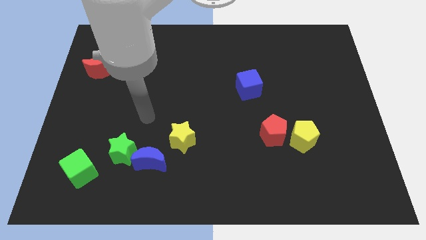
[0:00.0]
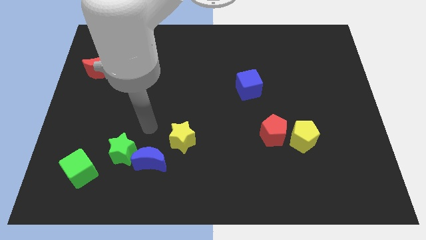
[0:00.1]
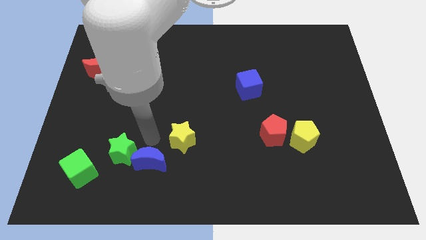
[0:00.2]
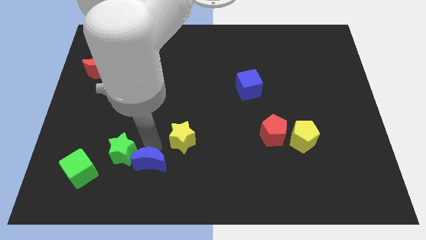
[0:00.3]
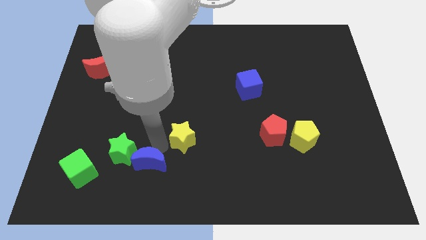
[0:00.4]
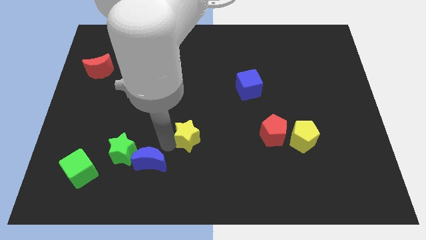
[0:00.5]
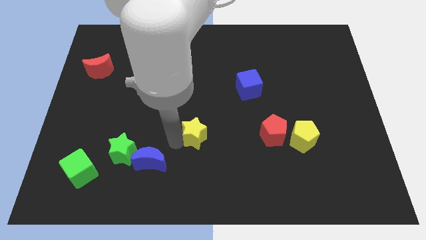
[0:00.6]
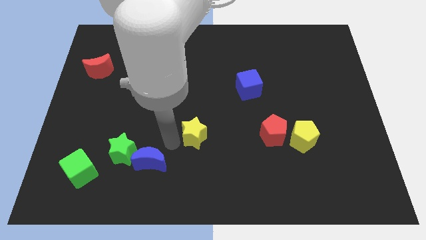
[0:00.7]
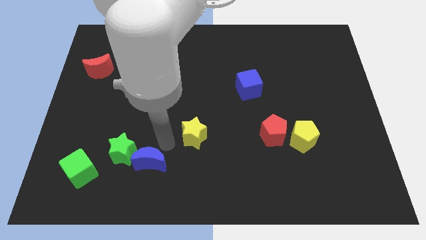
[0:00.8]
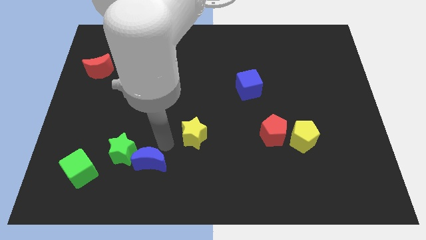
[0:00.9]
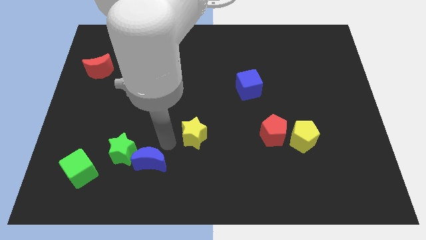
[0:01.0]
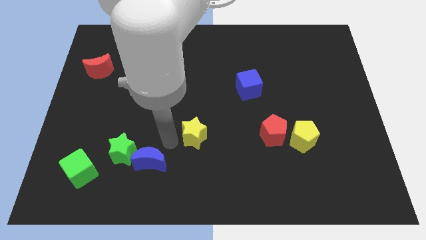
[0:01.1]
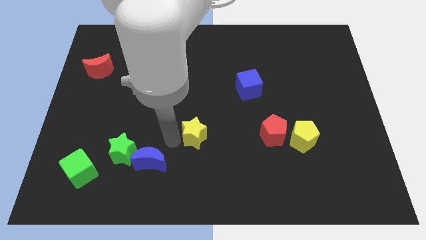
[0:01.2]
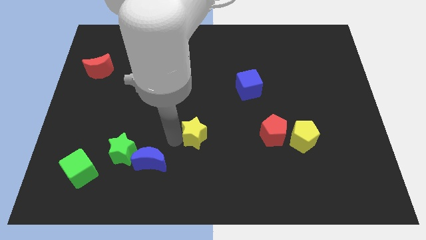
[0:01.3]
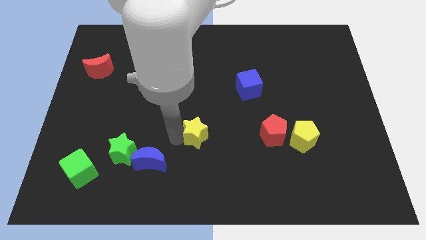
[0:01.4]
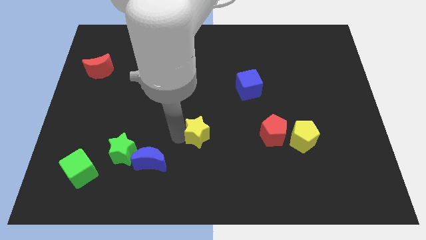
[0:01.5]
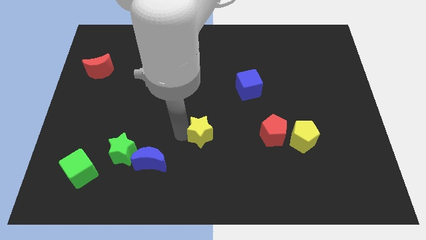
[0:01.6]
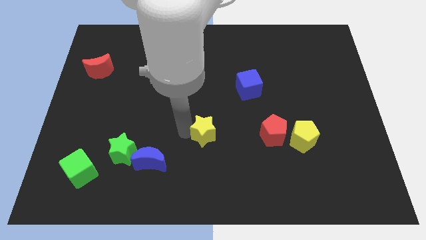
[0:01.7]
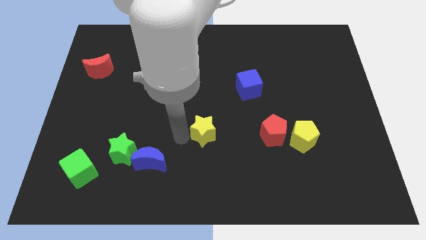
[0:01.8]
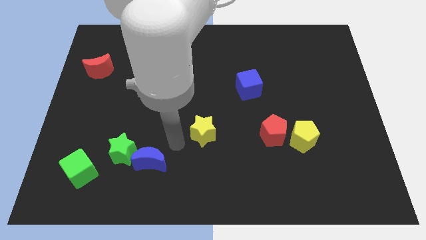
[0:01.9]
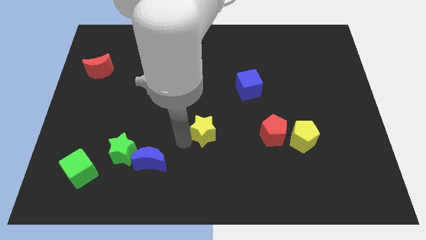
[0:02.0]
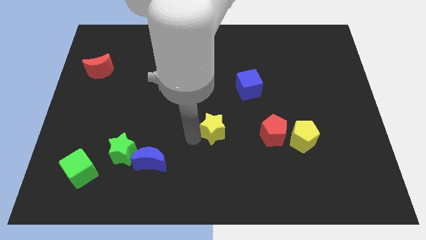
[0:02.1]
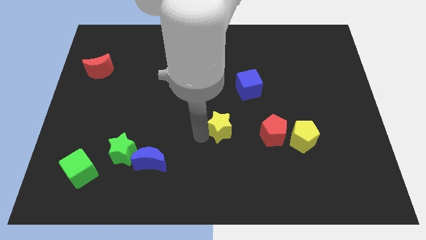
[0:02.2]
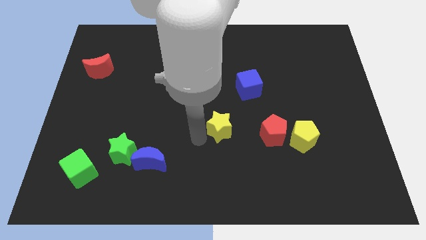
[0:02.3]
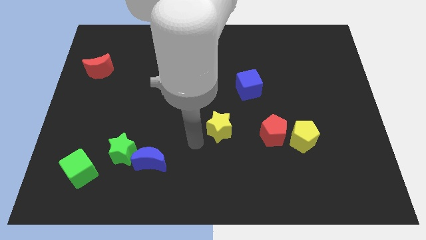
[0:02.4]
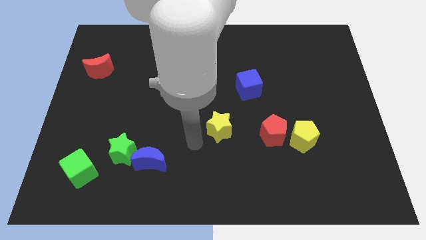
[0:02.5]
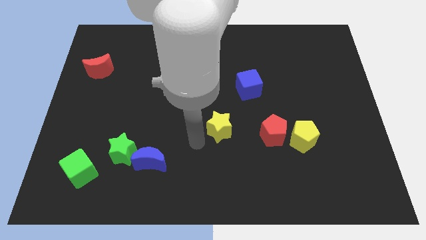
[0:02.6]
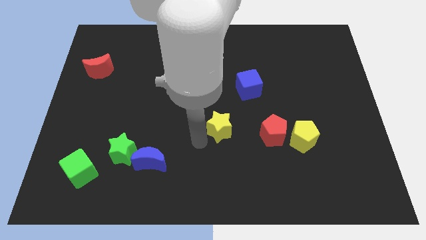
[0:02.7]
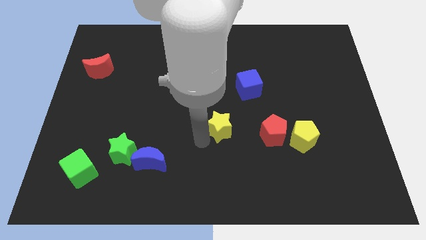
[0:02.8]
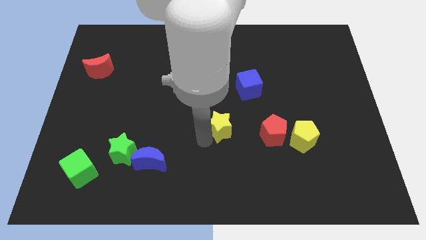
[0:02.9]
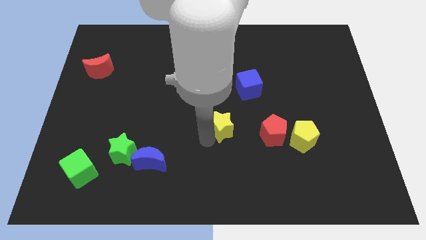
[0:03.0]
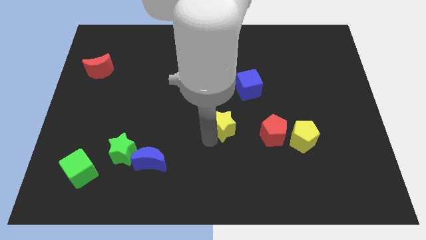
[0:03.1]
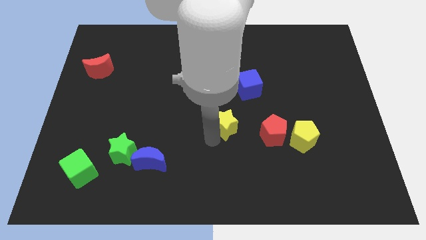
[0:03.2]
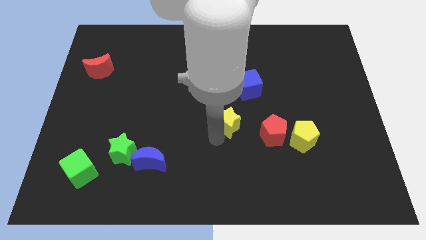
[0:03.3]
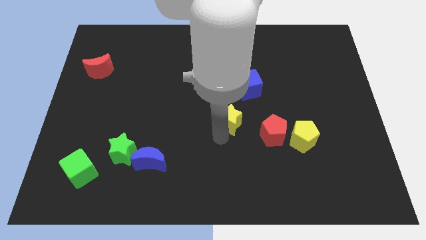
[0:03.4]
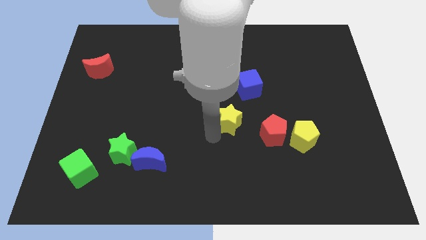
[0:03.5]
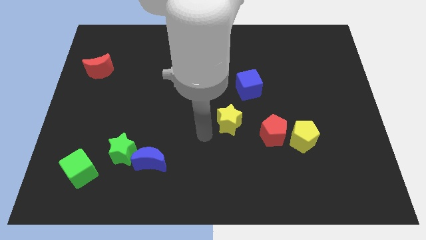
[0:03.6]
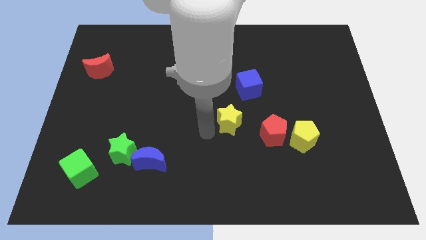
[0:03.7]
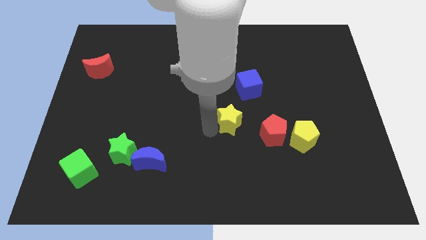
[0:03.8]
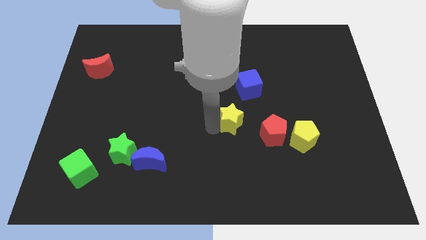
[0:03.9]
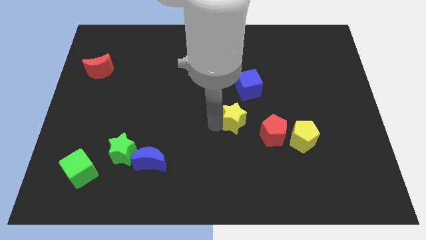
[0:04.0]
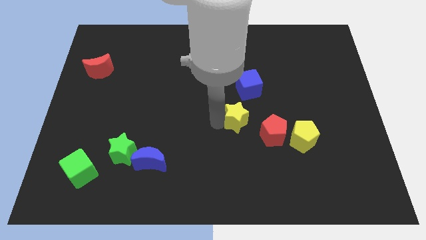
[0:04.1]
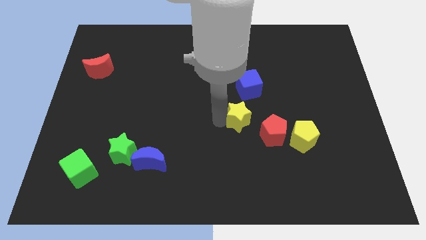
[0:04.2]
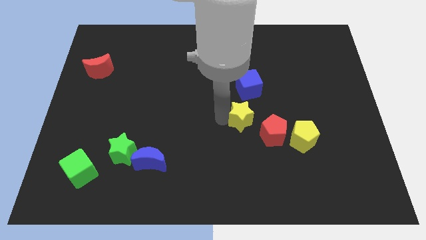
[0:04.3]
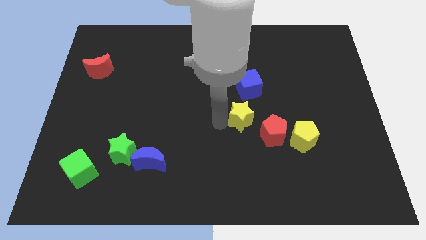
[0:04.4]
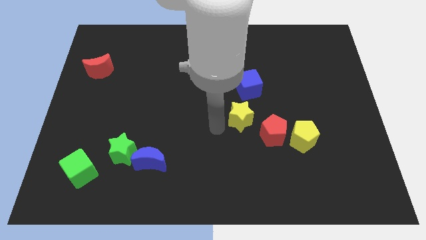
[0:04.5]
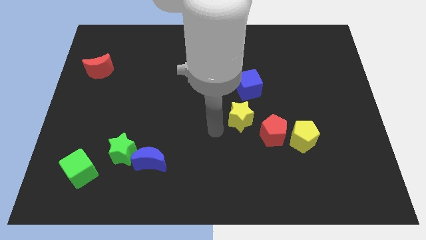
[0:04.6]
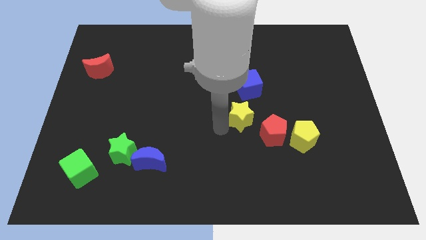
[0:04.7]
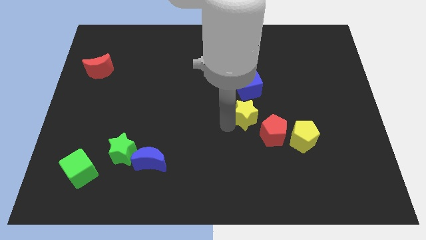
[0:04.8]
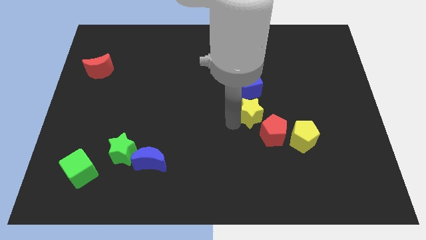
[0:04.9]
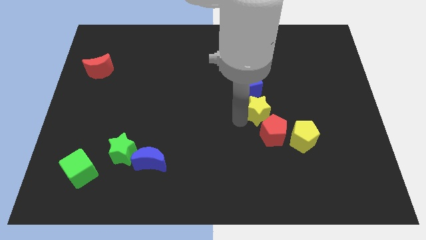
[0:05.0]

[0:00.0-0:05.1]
slide the yellow star to the bottom right of the blue cube

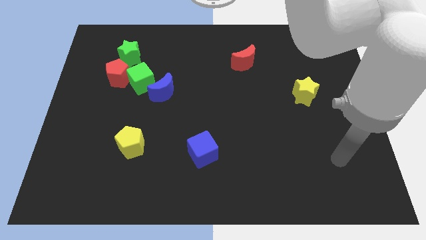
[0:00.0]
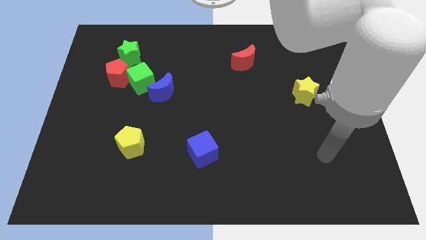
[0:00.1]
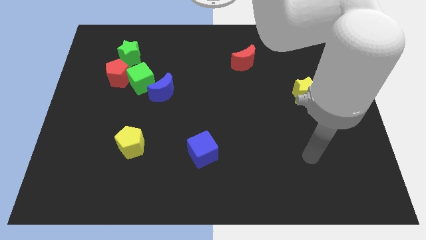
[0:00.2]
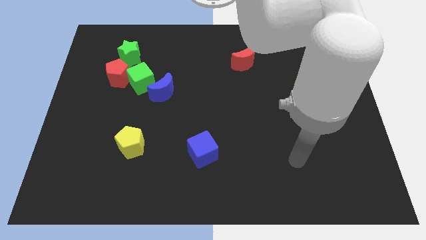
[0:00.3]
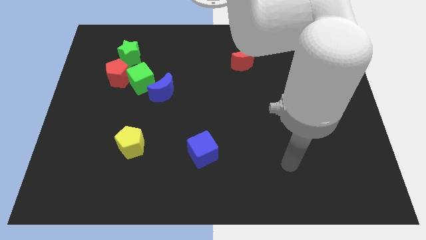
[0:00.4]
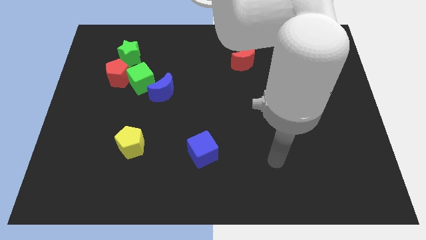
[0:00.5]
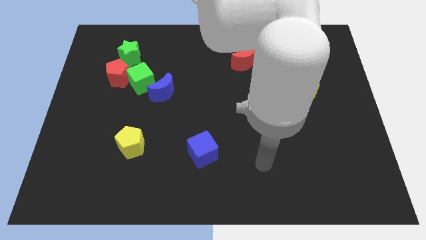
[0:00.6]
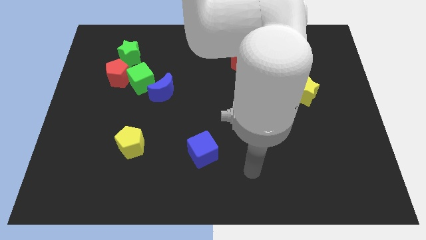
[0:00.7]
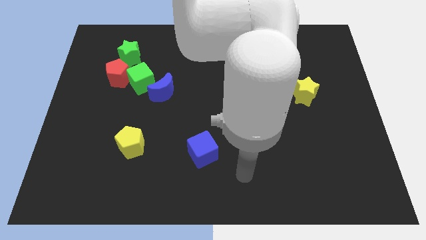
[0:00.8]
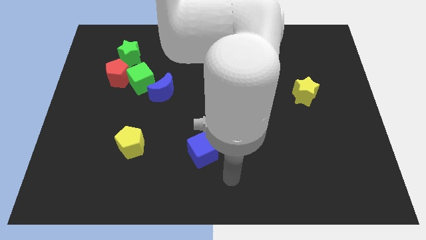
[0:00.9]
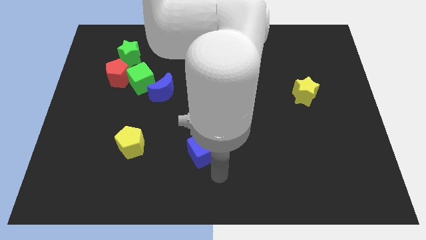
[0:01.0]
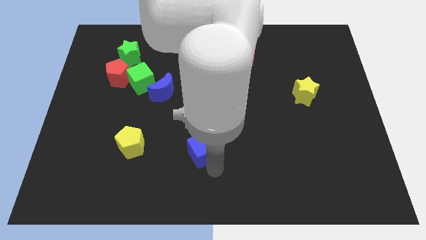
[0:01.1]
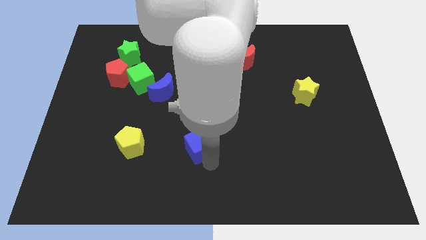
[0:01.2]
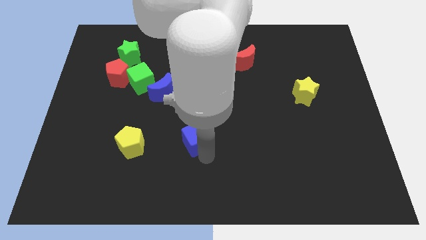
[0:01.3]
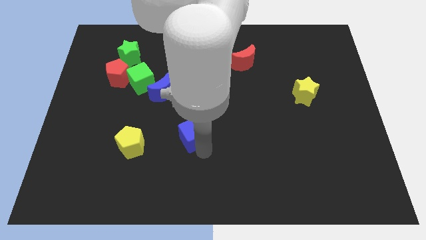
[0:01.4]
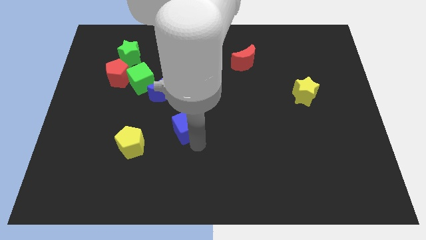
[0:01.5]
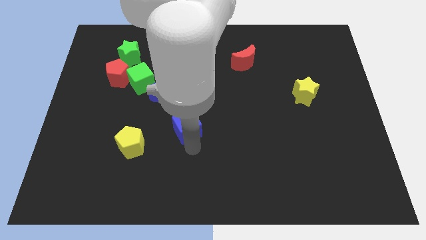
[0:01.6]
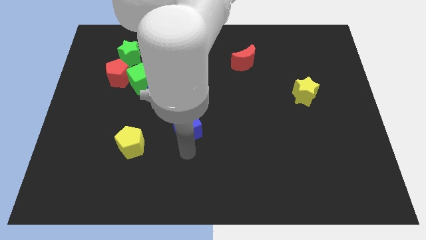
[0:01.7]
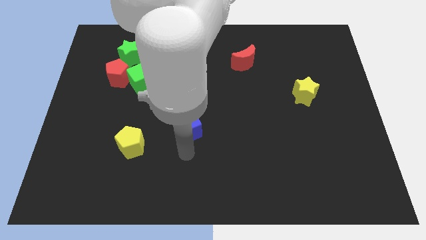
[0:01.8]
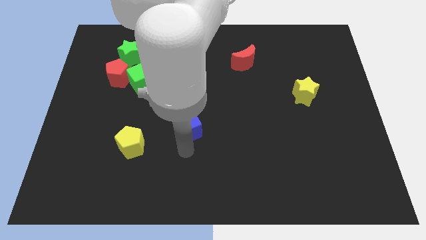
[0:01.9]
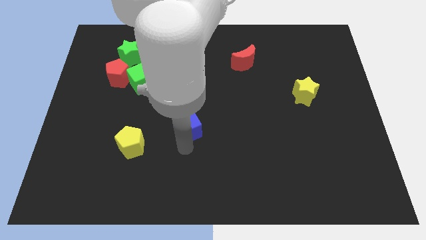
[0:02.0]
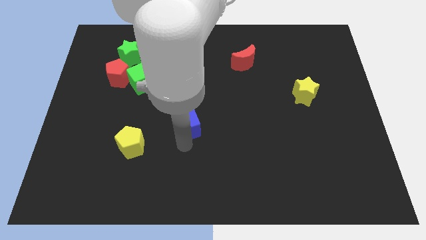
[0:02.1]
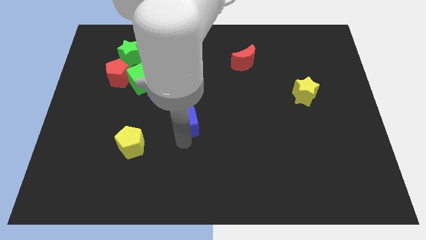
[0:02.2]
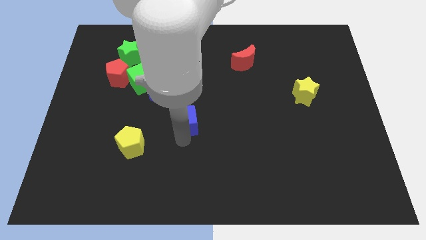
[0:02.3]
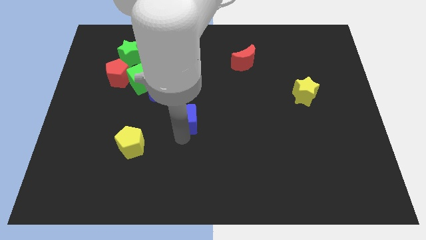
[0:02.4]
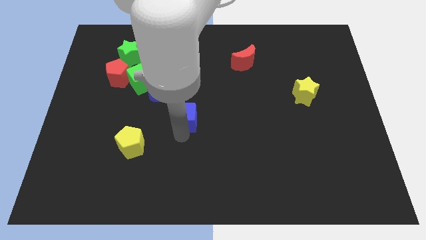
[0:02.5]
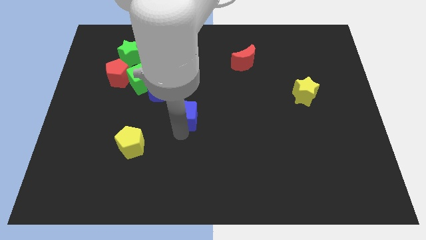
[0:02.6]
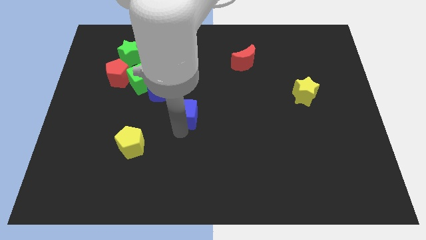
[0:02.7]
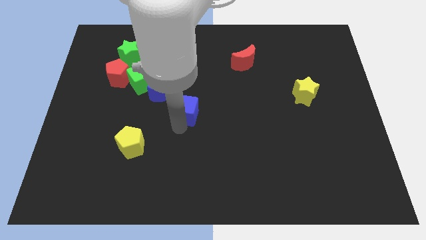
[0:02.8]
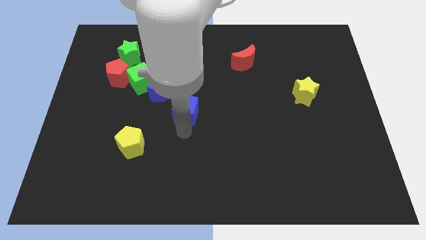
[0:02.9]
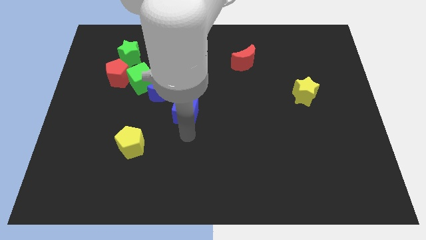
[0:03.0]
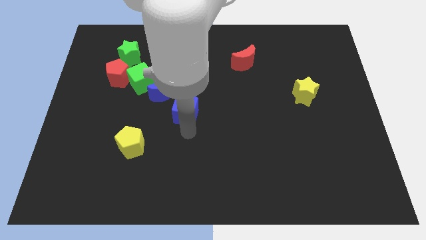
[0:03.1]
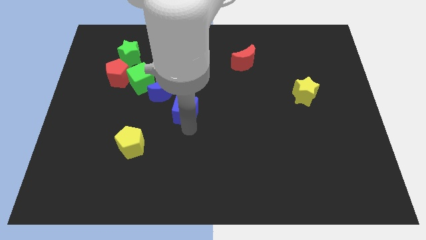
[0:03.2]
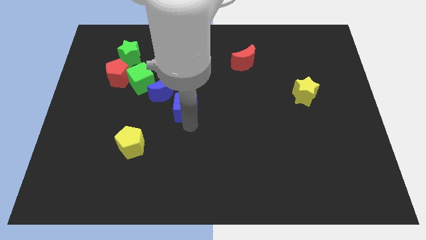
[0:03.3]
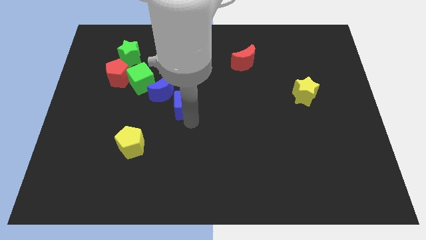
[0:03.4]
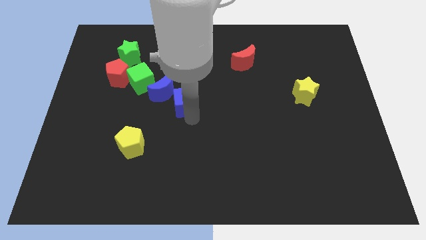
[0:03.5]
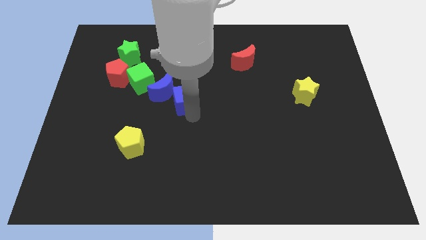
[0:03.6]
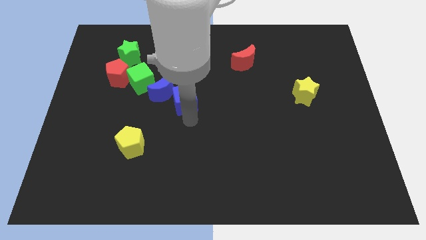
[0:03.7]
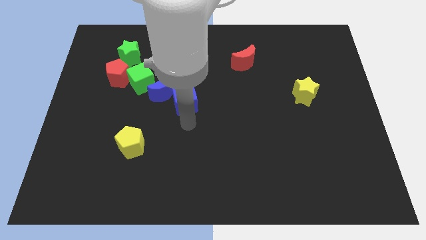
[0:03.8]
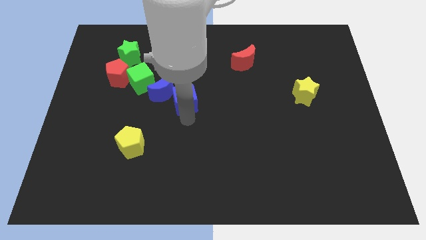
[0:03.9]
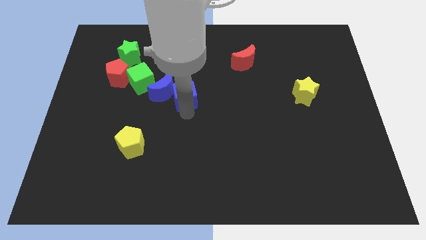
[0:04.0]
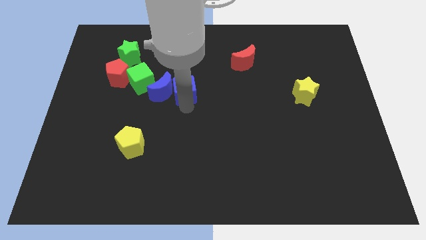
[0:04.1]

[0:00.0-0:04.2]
push the blue cube just right of the green cube
